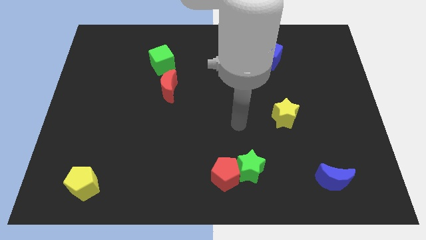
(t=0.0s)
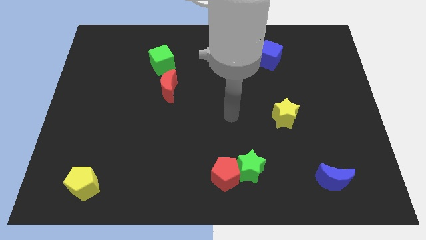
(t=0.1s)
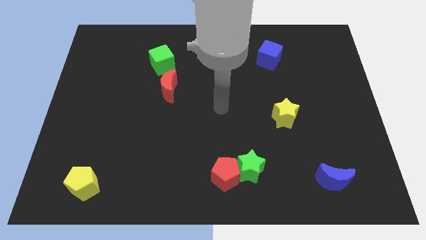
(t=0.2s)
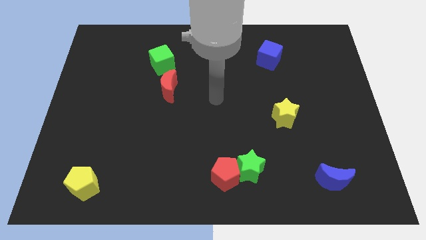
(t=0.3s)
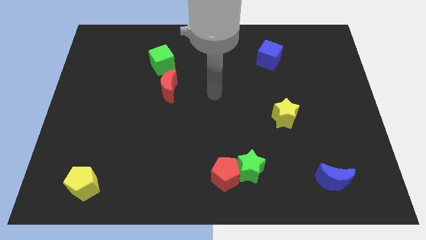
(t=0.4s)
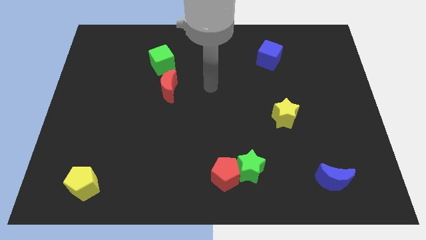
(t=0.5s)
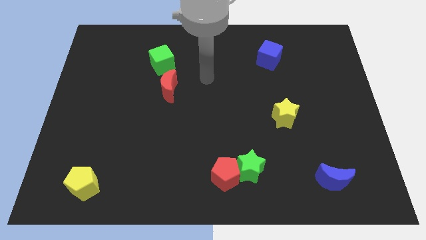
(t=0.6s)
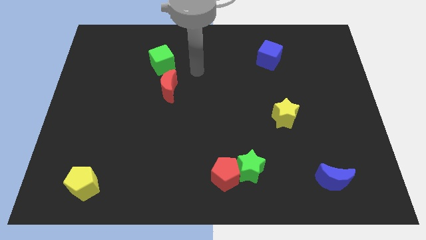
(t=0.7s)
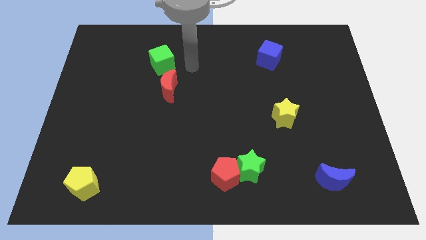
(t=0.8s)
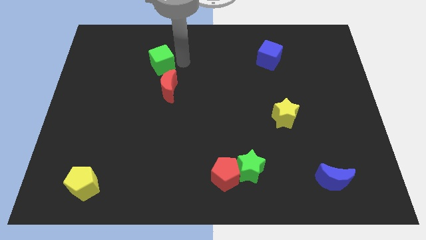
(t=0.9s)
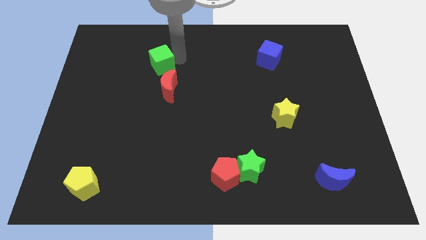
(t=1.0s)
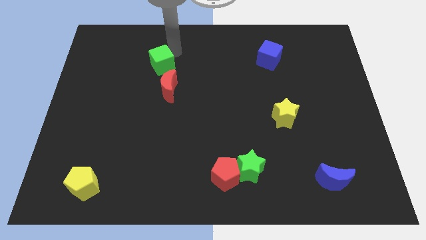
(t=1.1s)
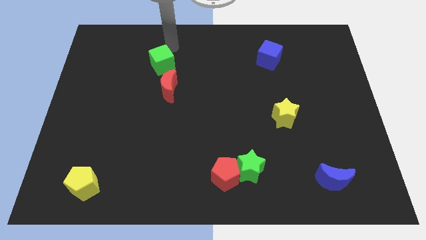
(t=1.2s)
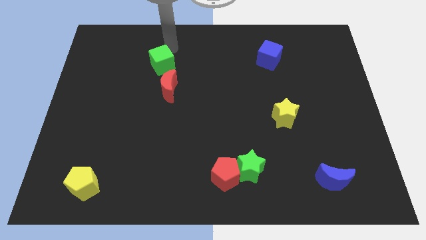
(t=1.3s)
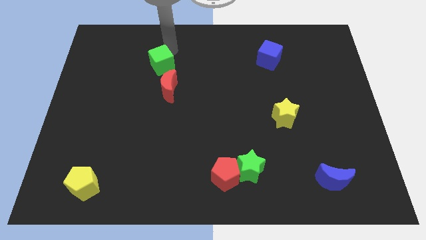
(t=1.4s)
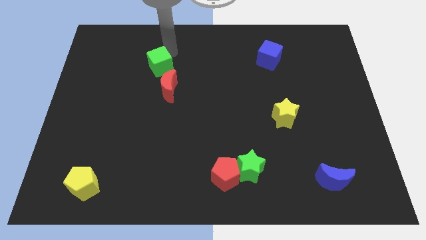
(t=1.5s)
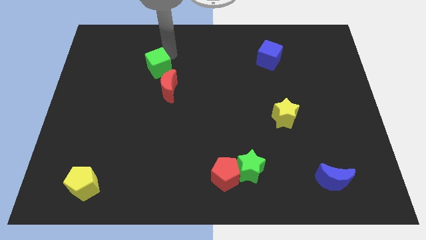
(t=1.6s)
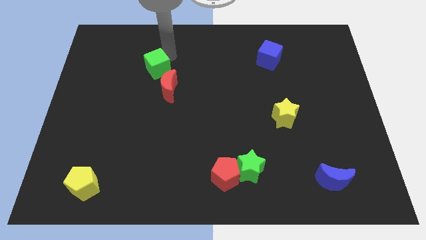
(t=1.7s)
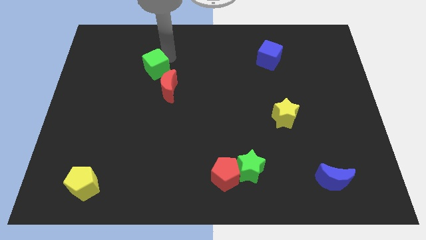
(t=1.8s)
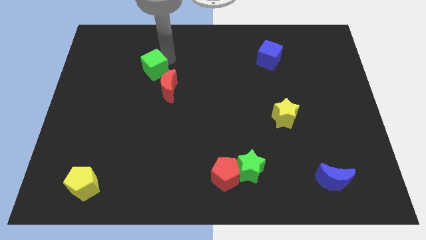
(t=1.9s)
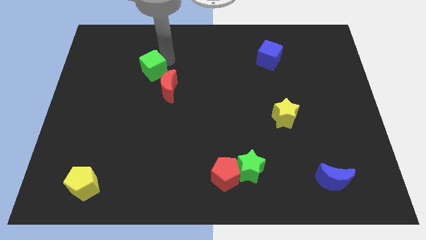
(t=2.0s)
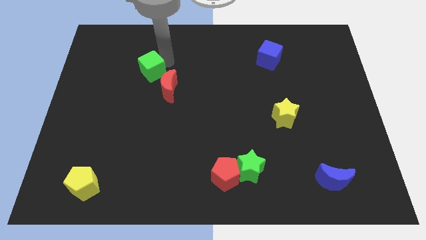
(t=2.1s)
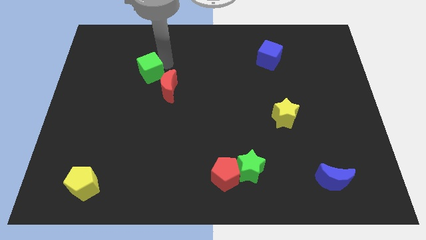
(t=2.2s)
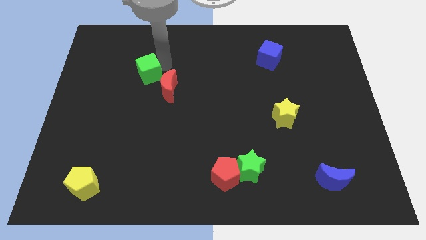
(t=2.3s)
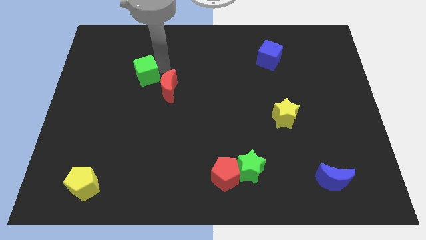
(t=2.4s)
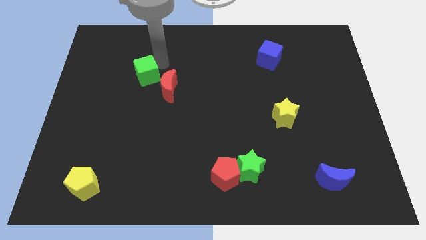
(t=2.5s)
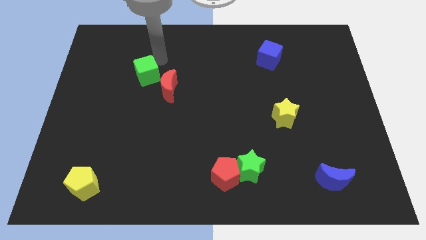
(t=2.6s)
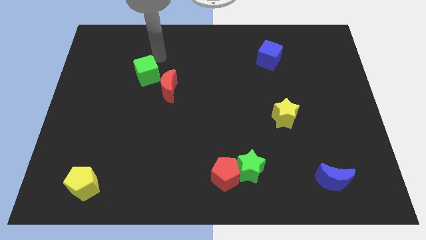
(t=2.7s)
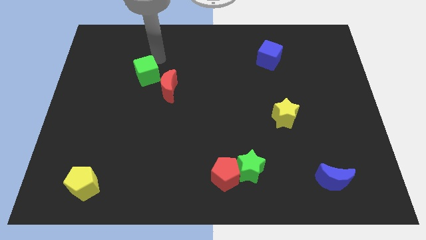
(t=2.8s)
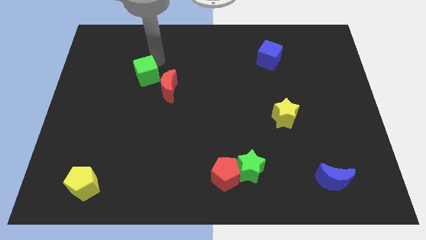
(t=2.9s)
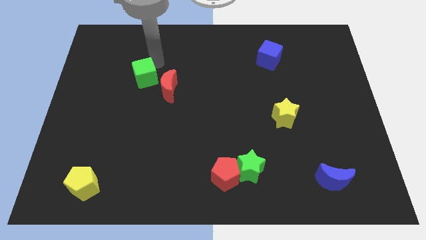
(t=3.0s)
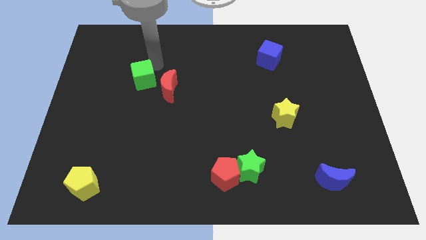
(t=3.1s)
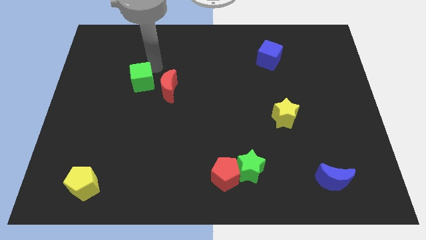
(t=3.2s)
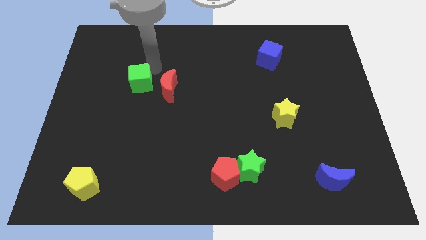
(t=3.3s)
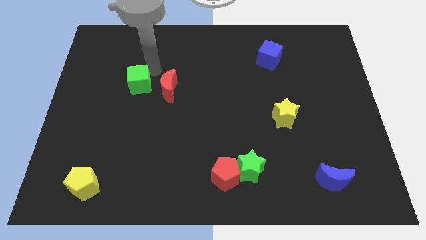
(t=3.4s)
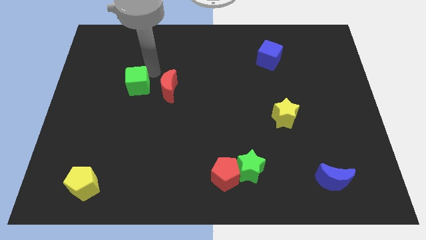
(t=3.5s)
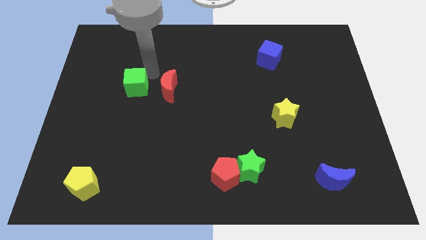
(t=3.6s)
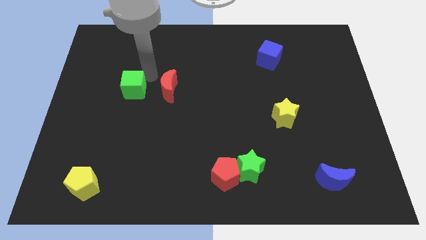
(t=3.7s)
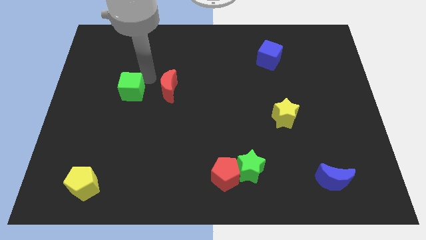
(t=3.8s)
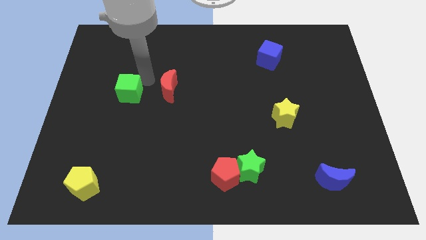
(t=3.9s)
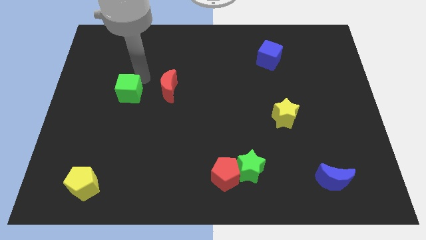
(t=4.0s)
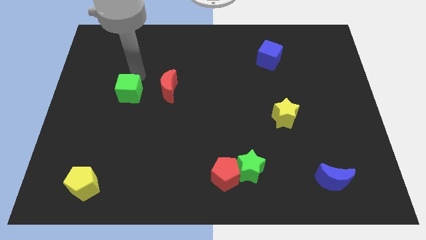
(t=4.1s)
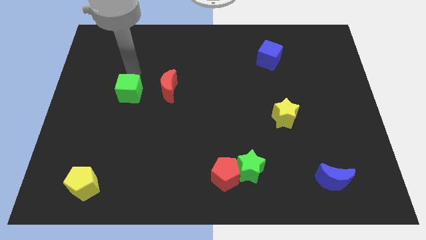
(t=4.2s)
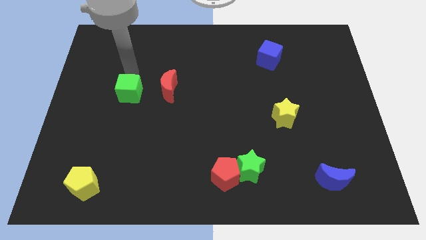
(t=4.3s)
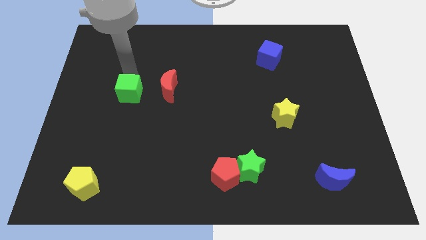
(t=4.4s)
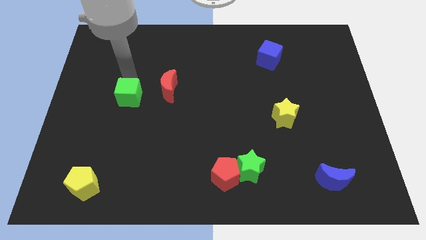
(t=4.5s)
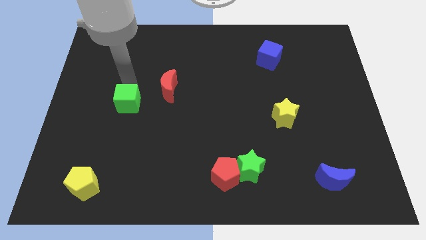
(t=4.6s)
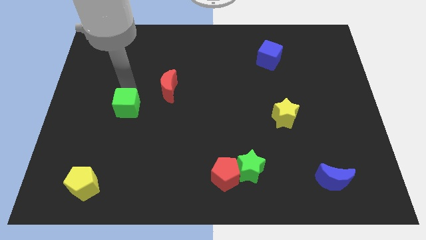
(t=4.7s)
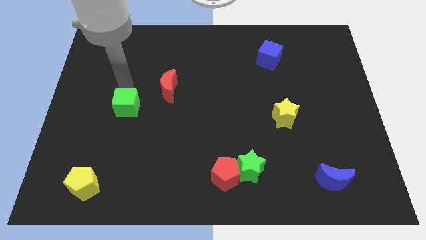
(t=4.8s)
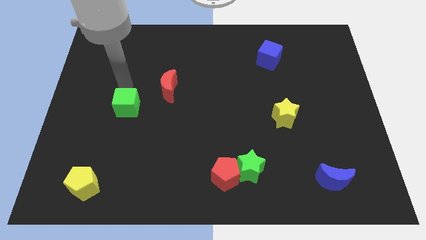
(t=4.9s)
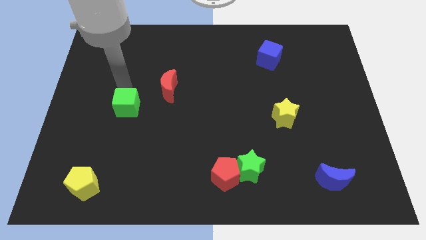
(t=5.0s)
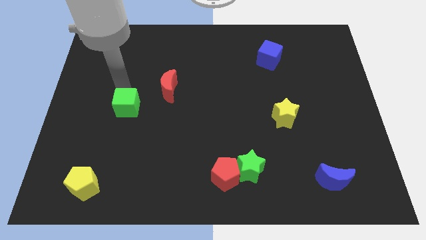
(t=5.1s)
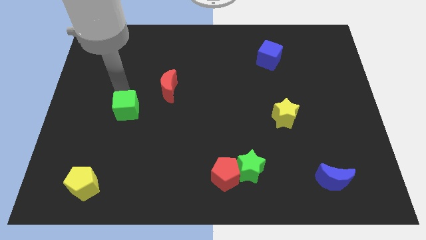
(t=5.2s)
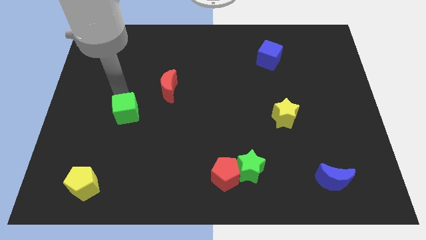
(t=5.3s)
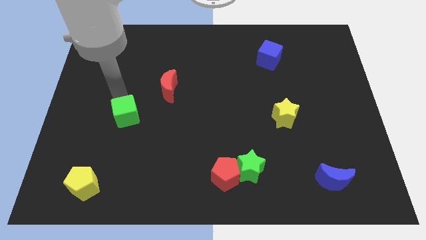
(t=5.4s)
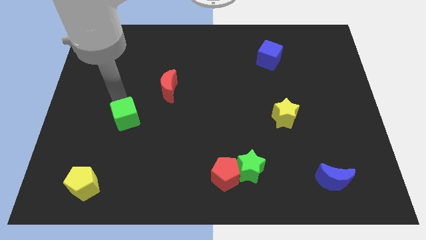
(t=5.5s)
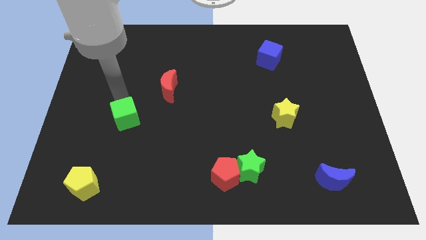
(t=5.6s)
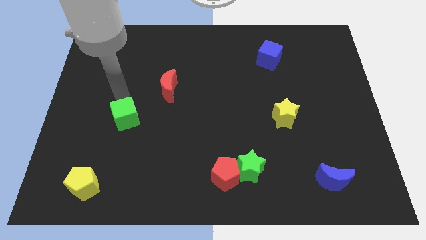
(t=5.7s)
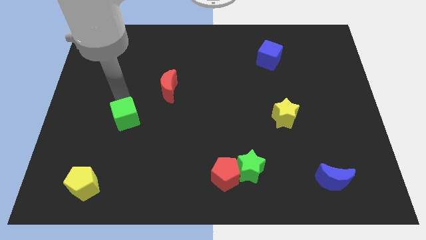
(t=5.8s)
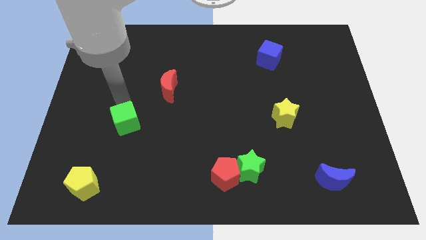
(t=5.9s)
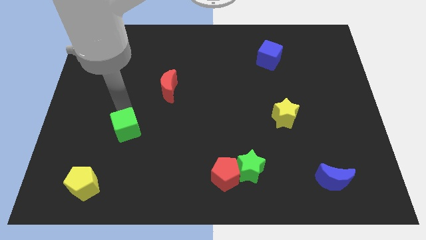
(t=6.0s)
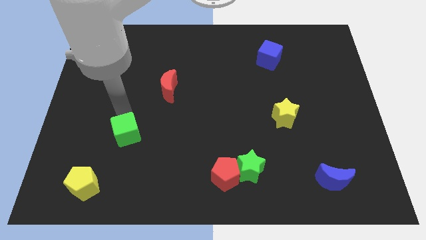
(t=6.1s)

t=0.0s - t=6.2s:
slide the green cube down

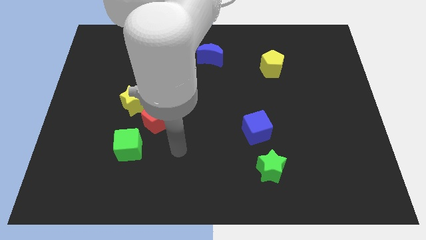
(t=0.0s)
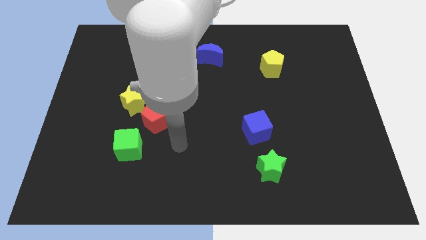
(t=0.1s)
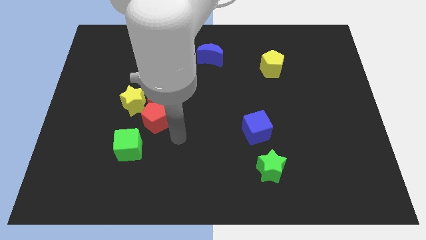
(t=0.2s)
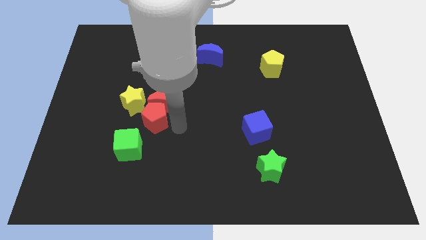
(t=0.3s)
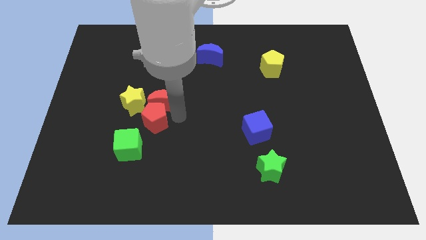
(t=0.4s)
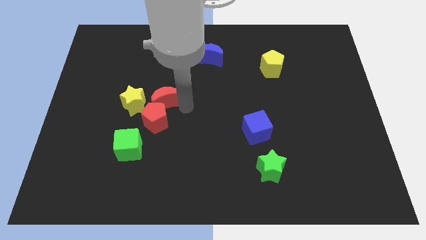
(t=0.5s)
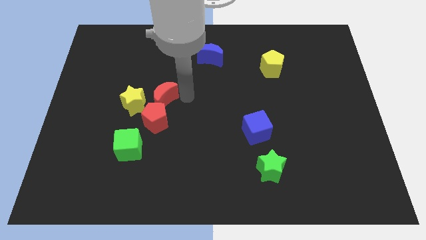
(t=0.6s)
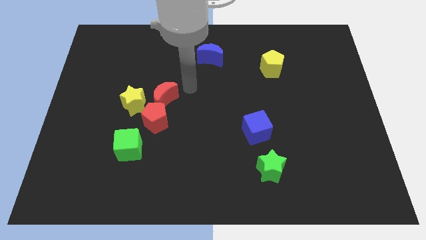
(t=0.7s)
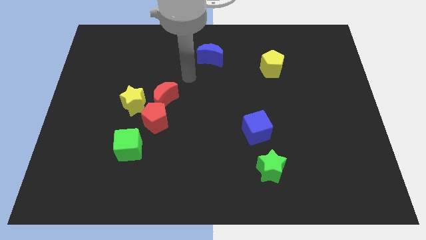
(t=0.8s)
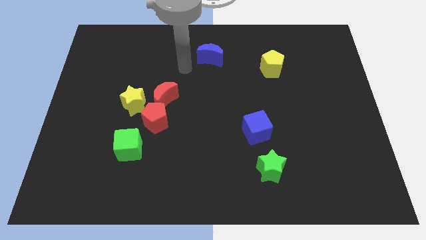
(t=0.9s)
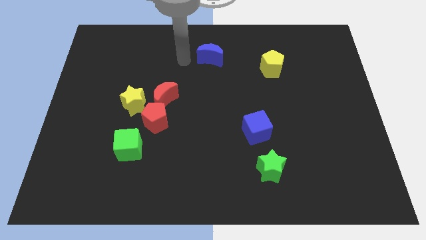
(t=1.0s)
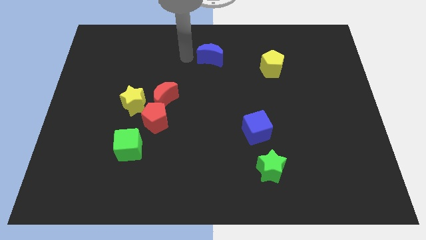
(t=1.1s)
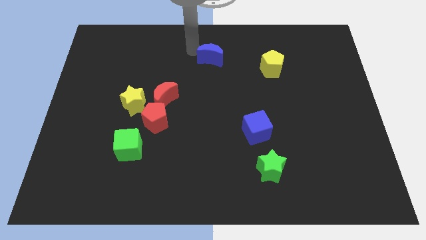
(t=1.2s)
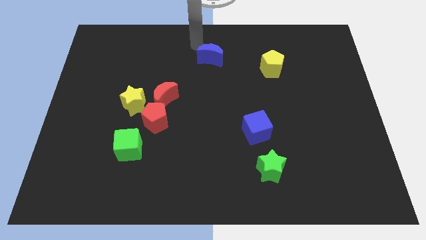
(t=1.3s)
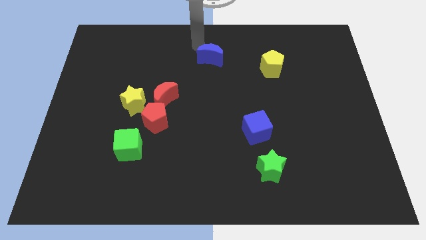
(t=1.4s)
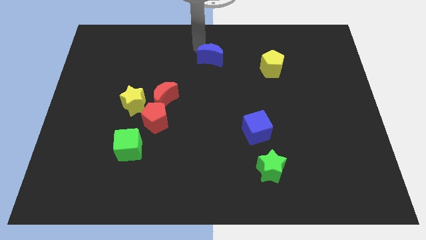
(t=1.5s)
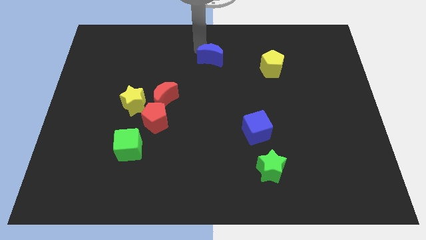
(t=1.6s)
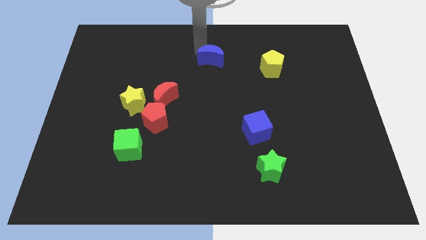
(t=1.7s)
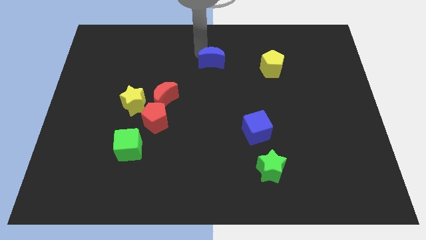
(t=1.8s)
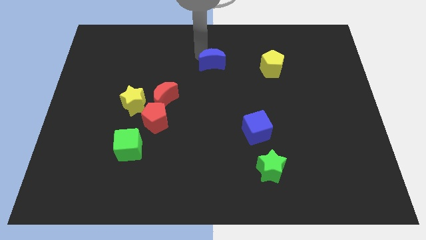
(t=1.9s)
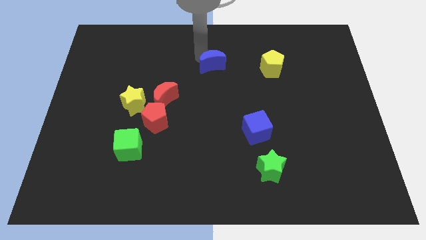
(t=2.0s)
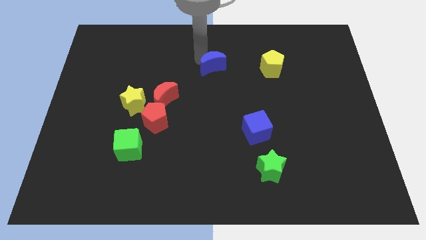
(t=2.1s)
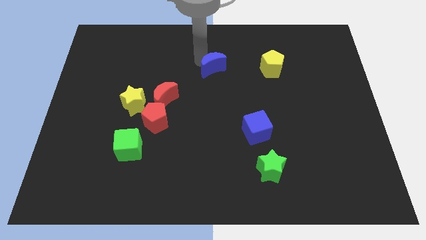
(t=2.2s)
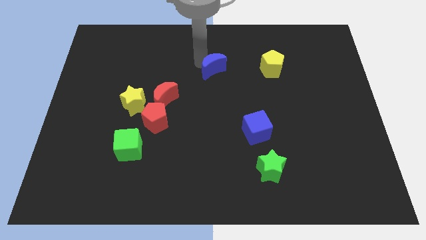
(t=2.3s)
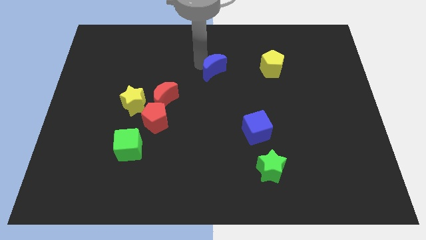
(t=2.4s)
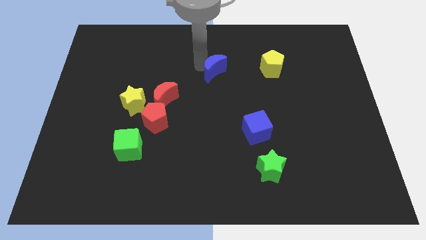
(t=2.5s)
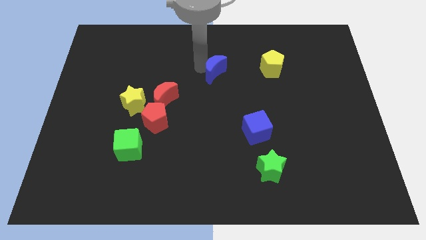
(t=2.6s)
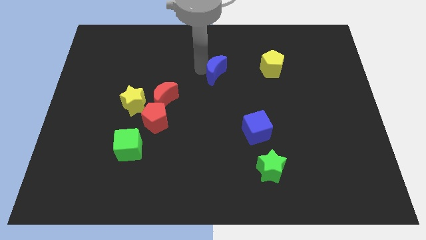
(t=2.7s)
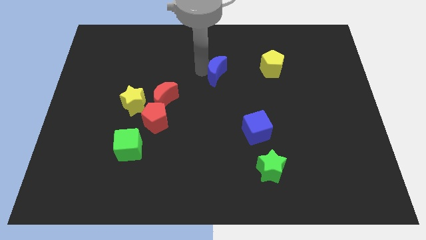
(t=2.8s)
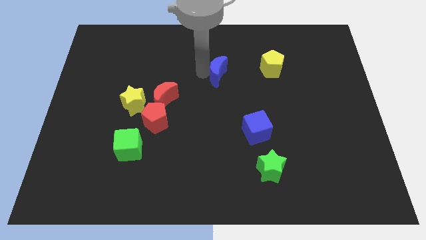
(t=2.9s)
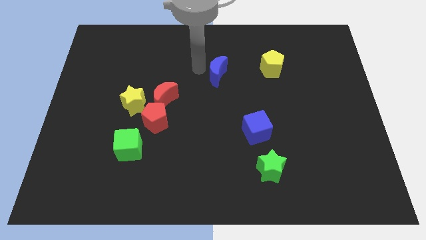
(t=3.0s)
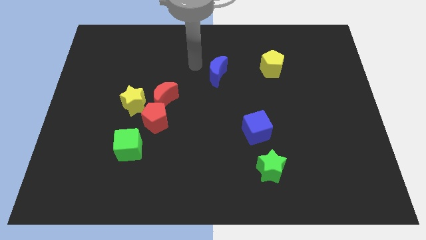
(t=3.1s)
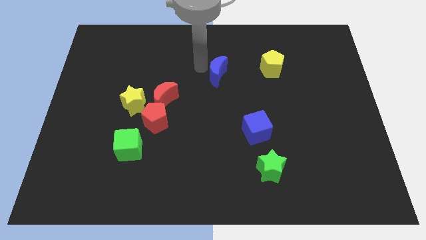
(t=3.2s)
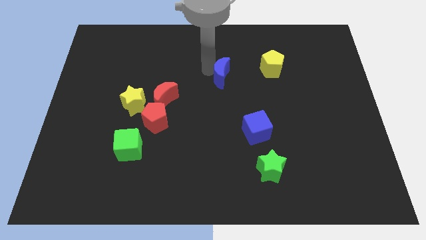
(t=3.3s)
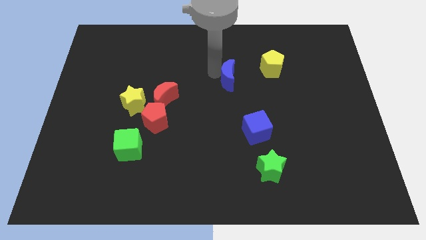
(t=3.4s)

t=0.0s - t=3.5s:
slightly slide the blue moon downwards and right
